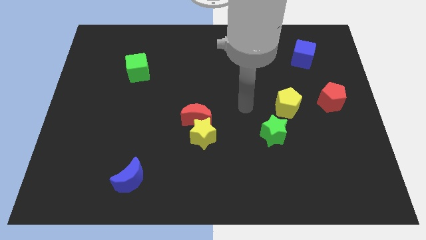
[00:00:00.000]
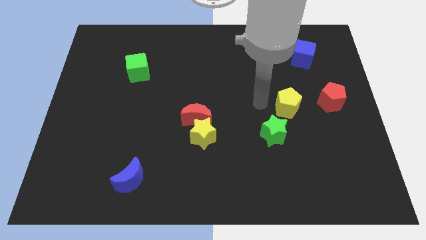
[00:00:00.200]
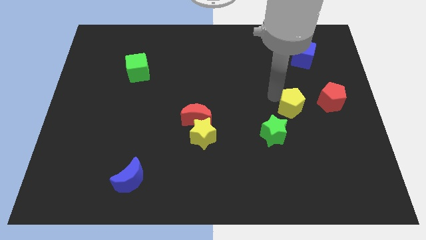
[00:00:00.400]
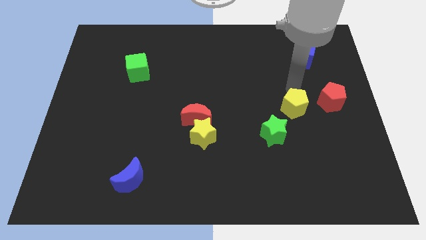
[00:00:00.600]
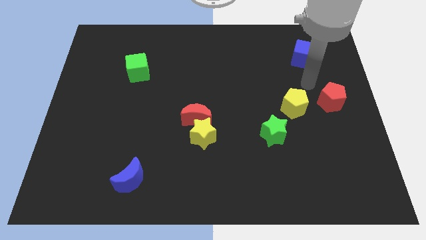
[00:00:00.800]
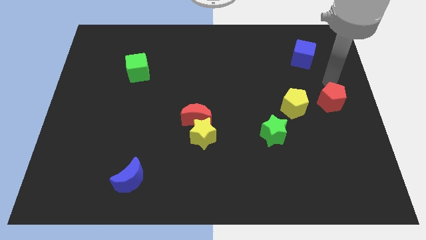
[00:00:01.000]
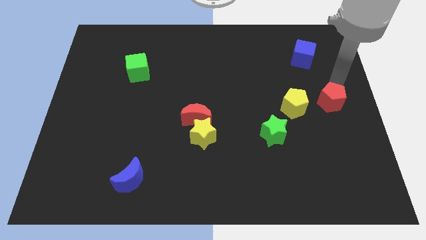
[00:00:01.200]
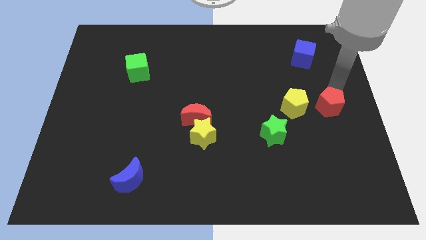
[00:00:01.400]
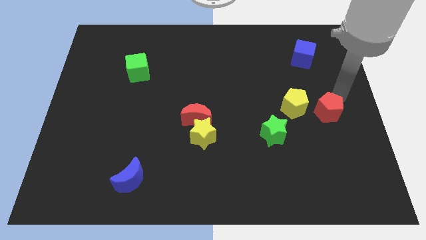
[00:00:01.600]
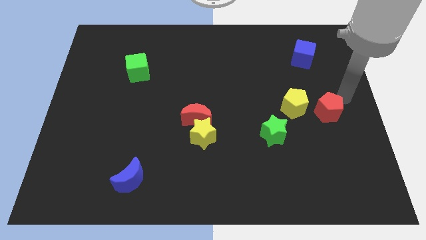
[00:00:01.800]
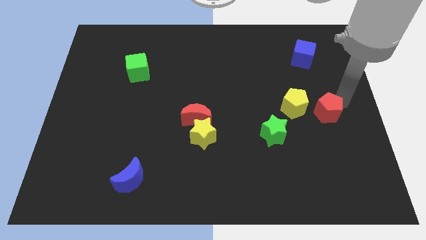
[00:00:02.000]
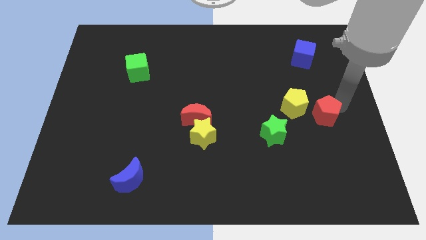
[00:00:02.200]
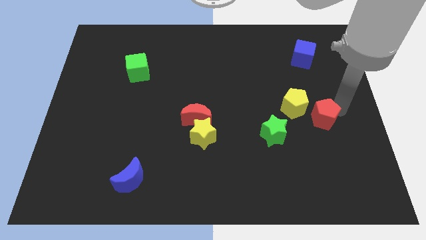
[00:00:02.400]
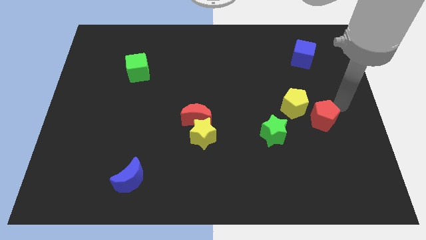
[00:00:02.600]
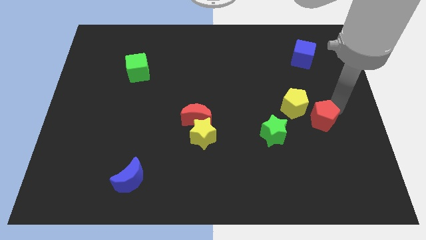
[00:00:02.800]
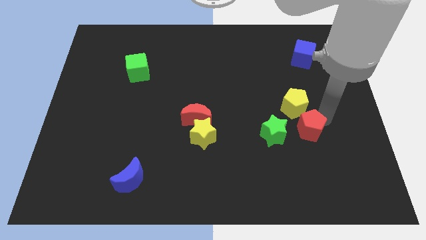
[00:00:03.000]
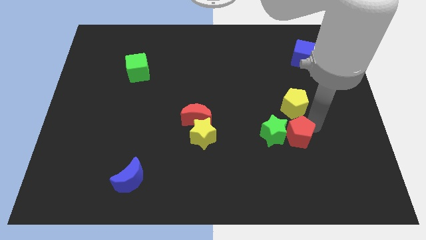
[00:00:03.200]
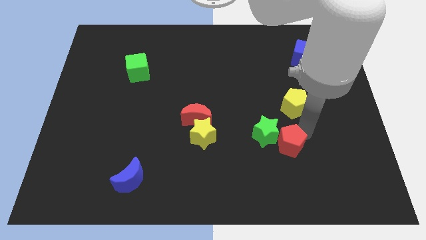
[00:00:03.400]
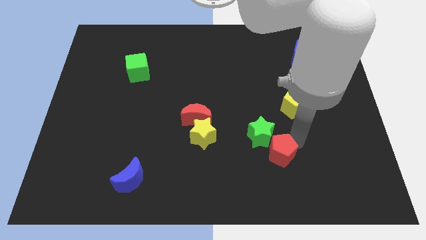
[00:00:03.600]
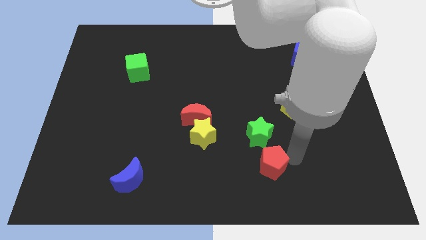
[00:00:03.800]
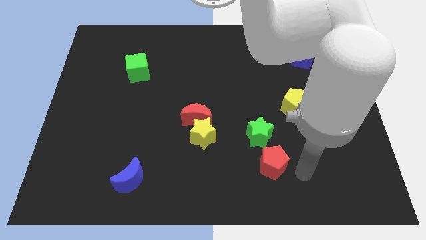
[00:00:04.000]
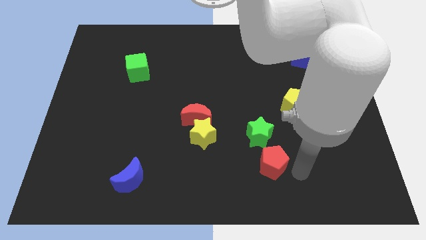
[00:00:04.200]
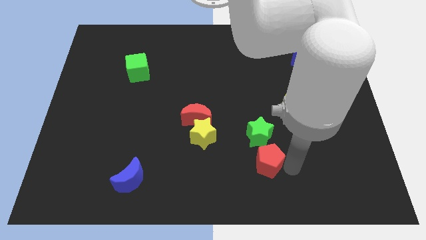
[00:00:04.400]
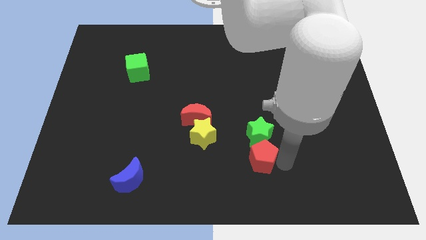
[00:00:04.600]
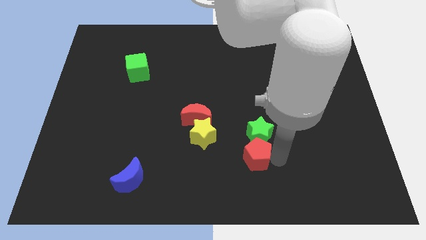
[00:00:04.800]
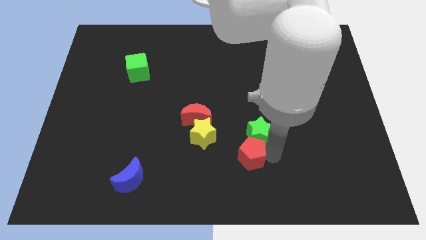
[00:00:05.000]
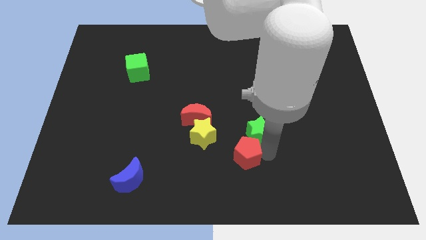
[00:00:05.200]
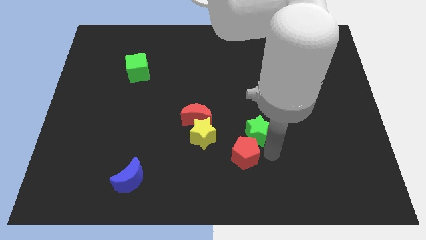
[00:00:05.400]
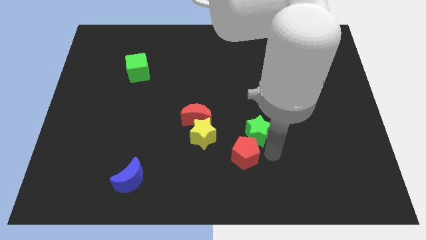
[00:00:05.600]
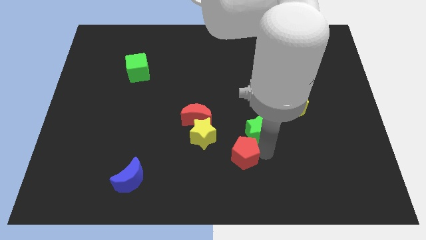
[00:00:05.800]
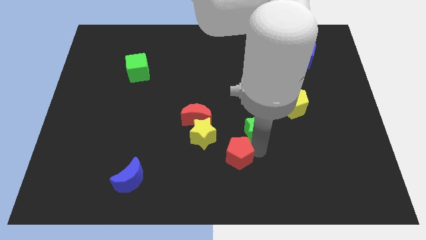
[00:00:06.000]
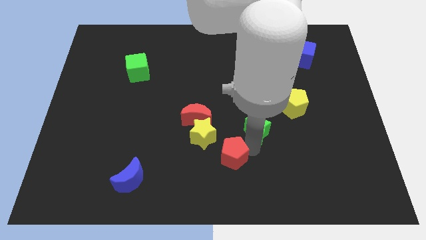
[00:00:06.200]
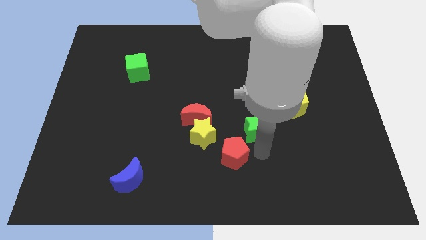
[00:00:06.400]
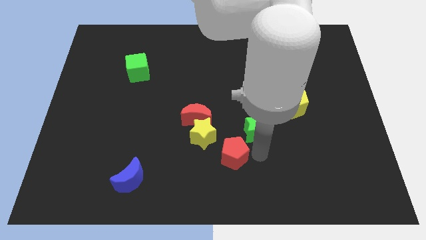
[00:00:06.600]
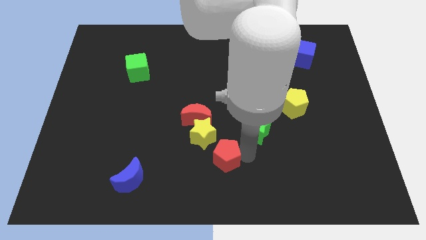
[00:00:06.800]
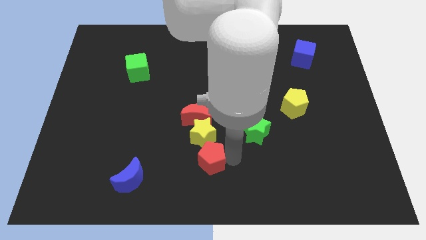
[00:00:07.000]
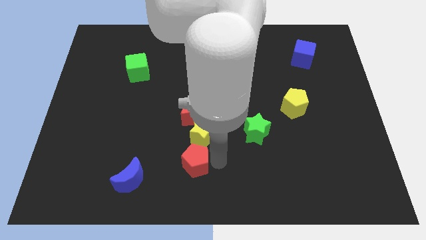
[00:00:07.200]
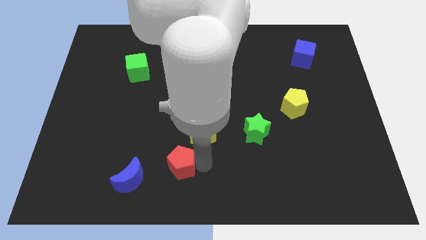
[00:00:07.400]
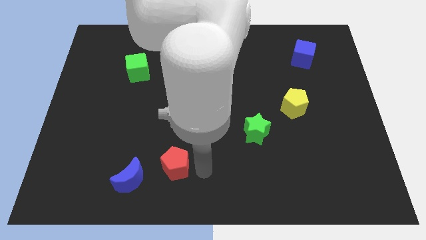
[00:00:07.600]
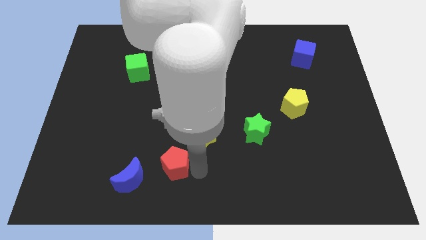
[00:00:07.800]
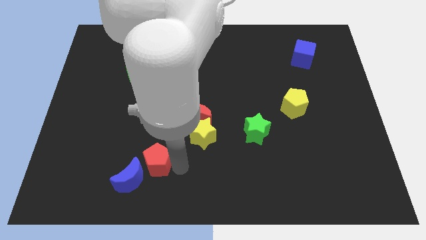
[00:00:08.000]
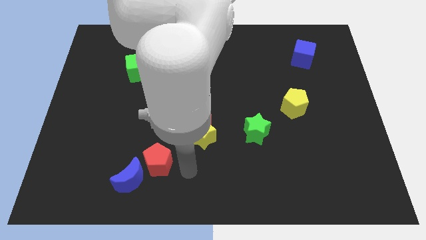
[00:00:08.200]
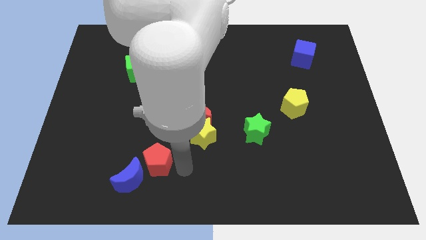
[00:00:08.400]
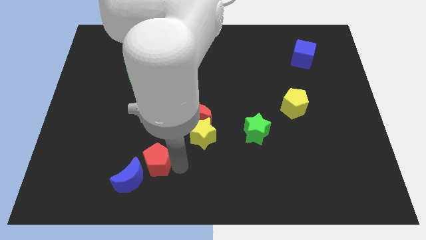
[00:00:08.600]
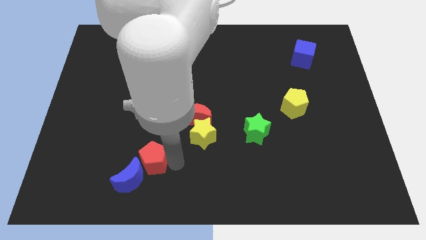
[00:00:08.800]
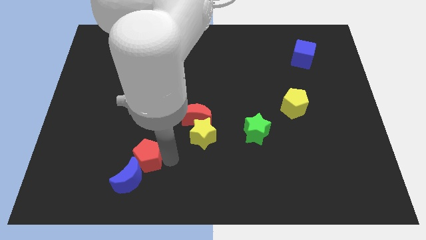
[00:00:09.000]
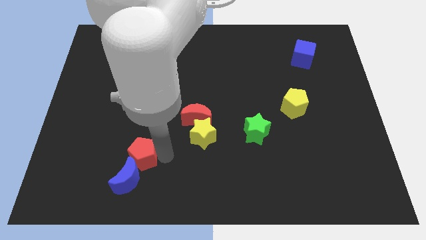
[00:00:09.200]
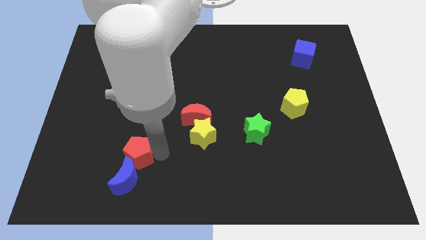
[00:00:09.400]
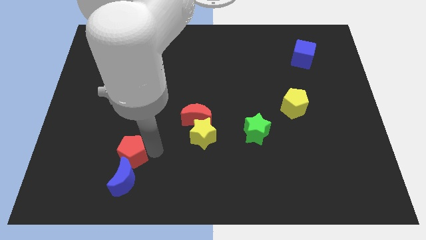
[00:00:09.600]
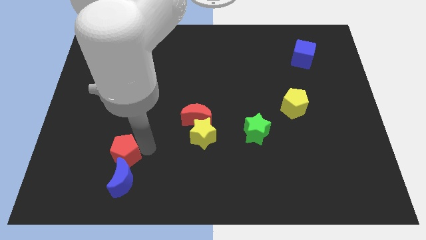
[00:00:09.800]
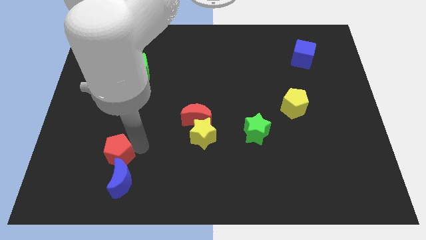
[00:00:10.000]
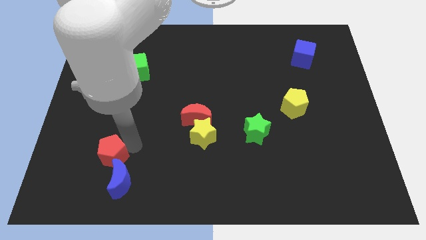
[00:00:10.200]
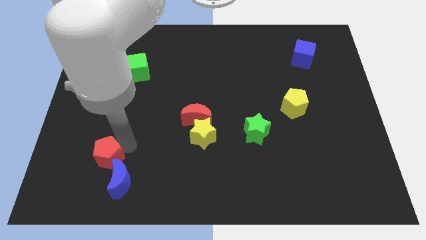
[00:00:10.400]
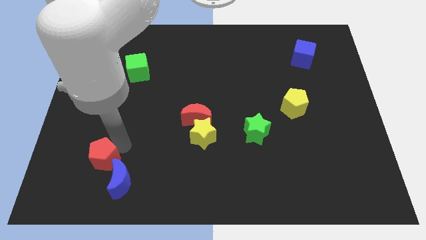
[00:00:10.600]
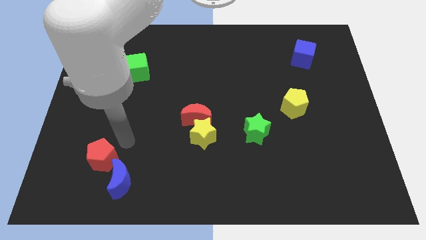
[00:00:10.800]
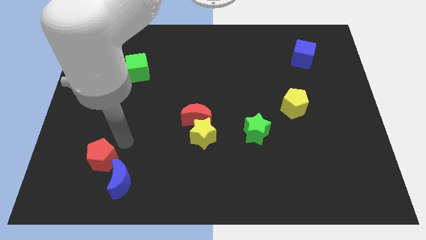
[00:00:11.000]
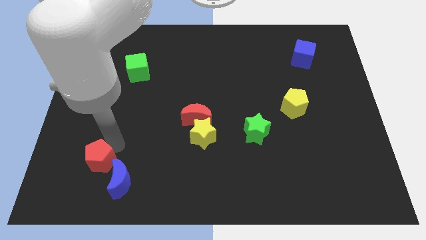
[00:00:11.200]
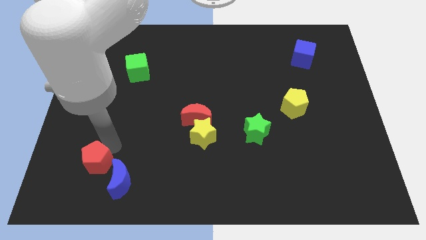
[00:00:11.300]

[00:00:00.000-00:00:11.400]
push the red pentagon left of the blue moon

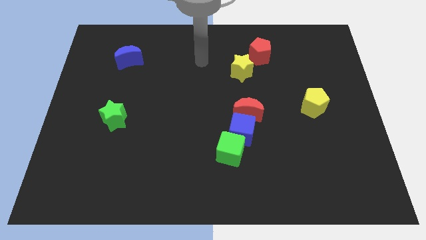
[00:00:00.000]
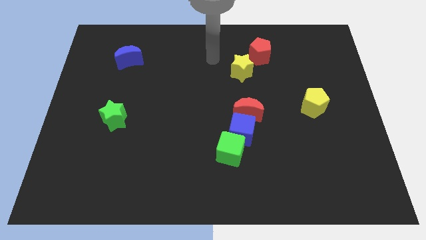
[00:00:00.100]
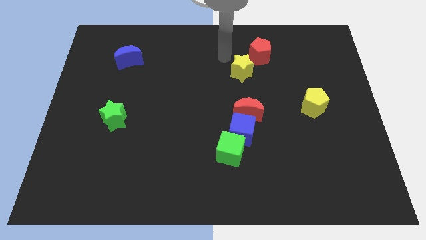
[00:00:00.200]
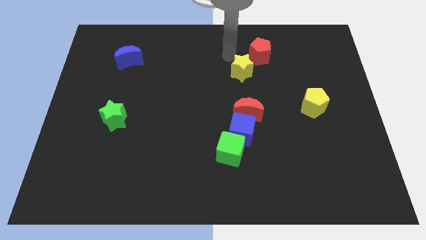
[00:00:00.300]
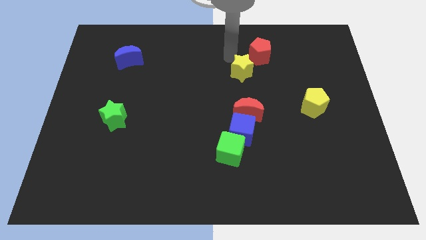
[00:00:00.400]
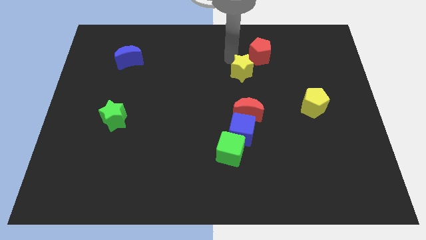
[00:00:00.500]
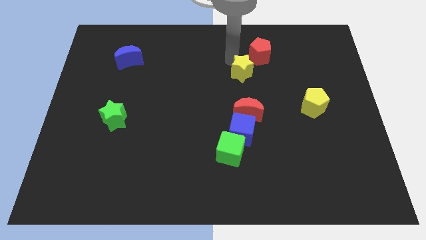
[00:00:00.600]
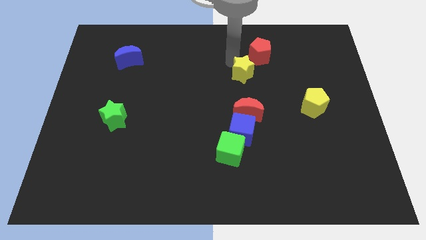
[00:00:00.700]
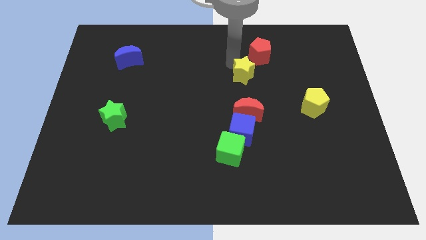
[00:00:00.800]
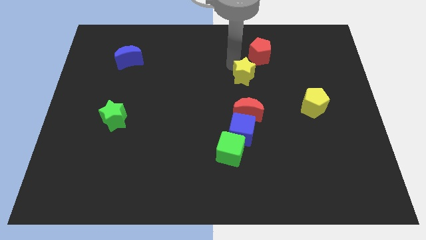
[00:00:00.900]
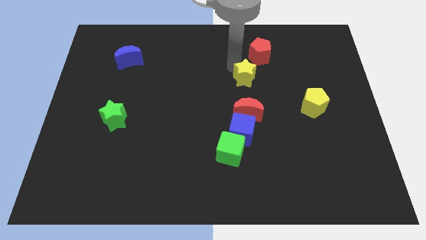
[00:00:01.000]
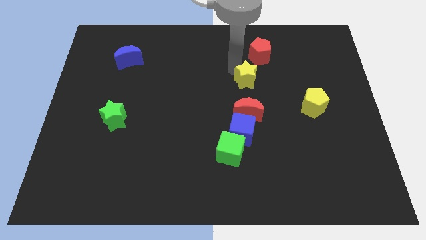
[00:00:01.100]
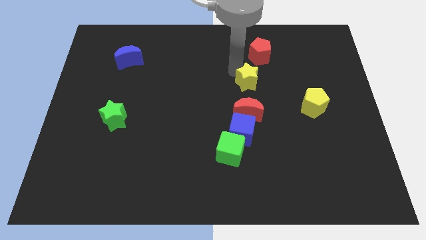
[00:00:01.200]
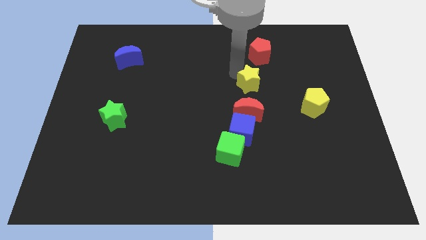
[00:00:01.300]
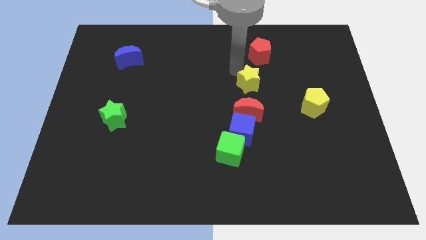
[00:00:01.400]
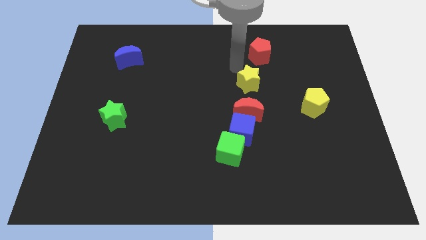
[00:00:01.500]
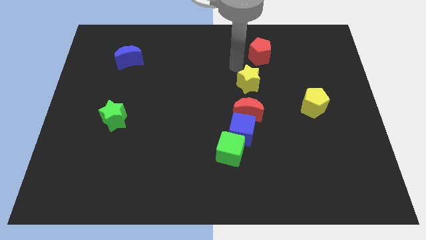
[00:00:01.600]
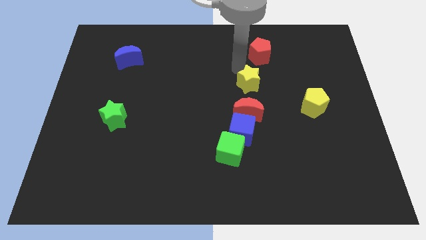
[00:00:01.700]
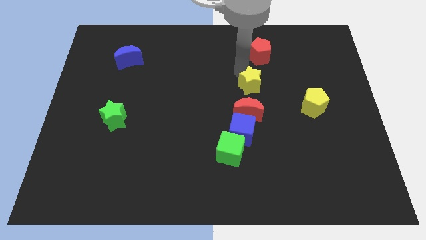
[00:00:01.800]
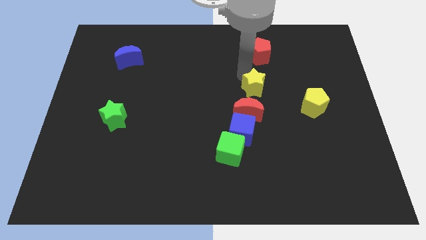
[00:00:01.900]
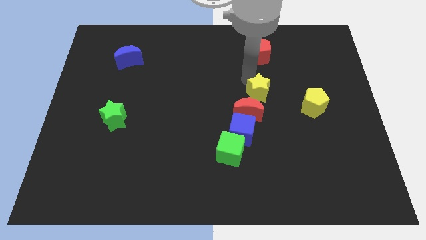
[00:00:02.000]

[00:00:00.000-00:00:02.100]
push the yellow star left of the yellow pentagon
